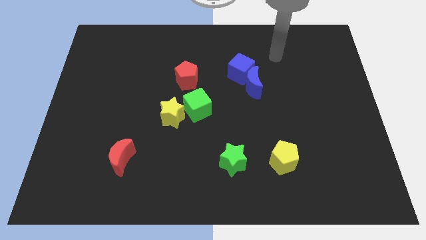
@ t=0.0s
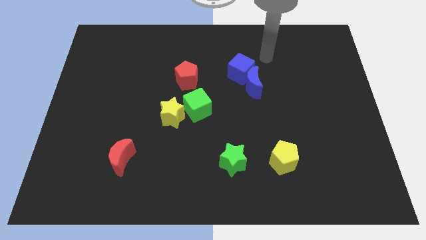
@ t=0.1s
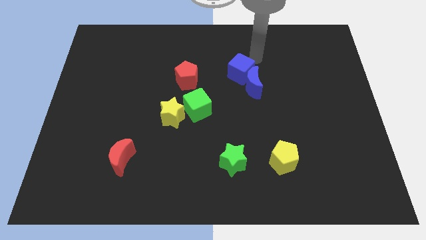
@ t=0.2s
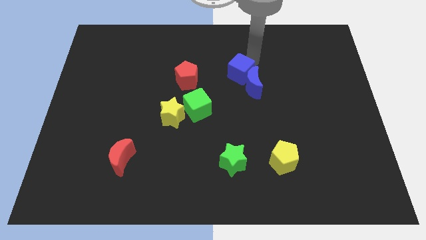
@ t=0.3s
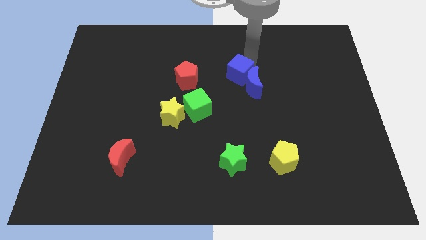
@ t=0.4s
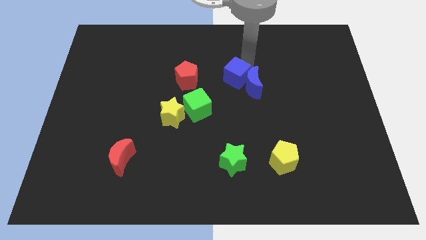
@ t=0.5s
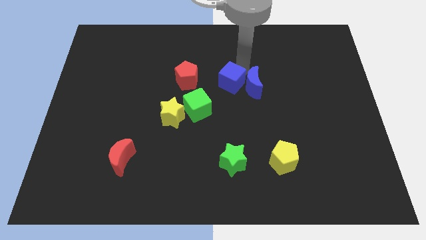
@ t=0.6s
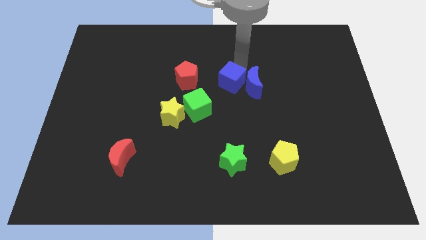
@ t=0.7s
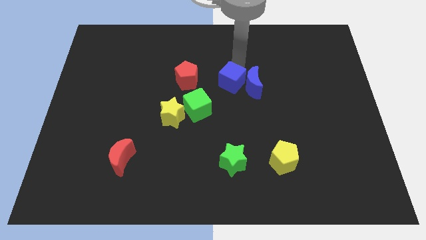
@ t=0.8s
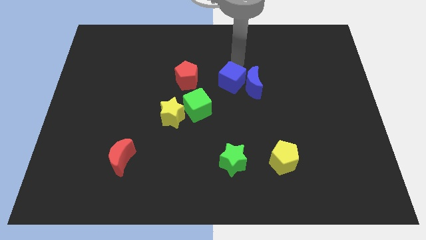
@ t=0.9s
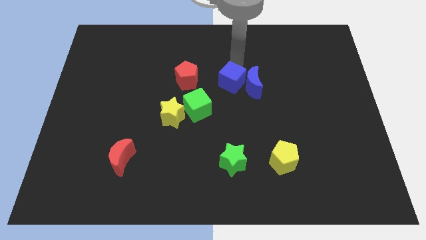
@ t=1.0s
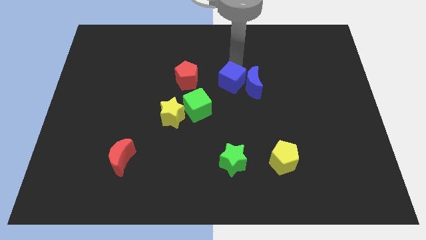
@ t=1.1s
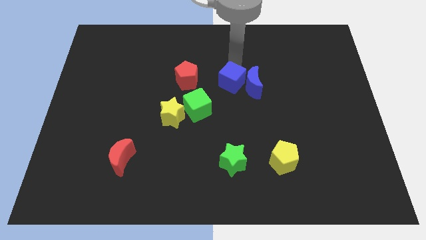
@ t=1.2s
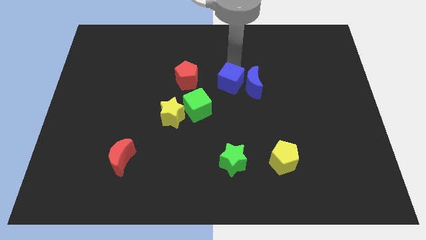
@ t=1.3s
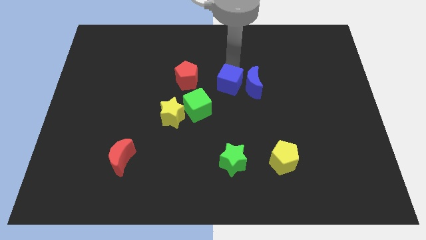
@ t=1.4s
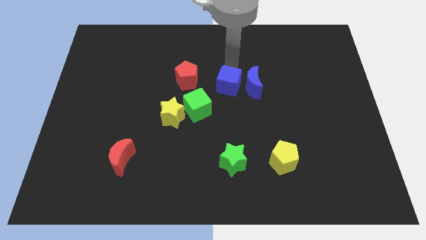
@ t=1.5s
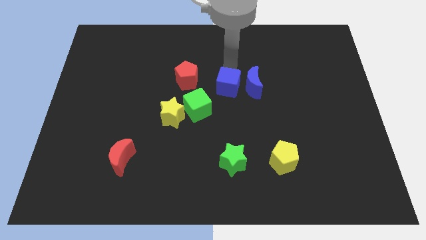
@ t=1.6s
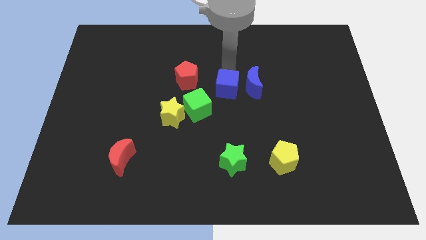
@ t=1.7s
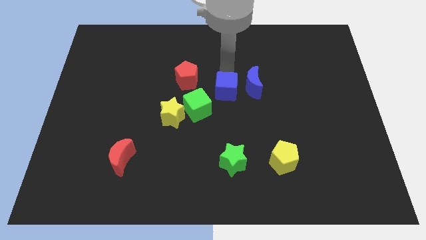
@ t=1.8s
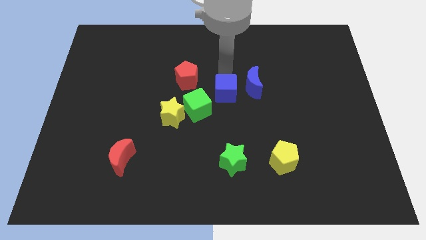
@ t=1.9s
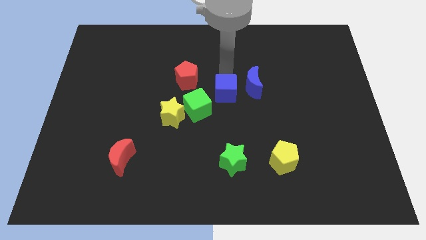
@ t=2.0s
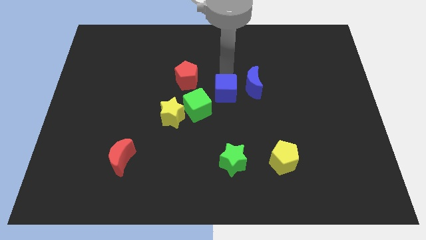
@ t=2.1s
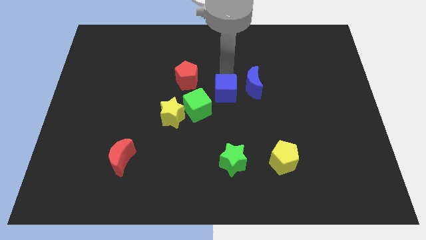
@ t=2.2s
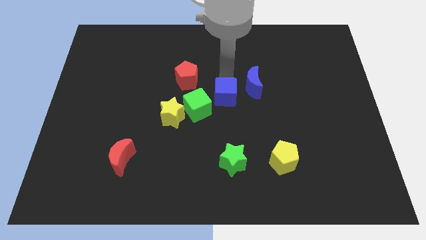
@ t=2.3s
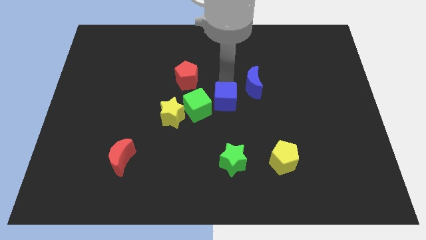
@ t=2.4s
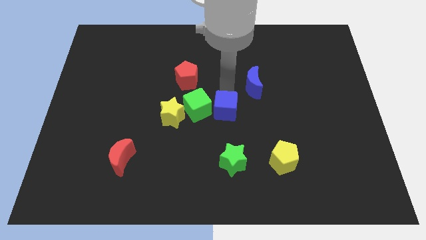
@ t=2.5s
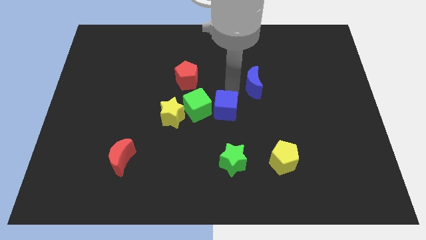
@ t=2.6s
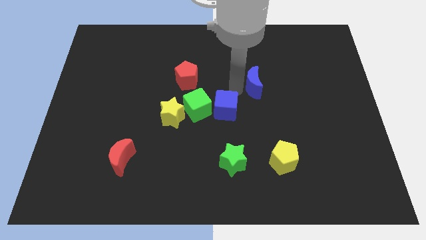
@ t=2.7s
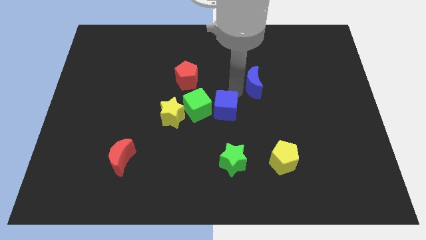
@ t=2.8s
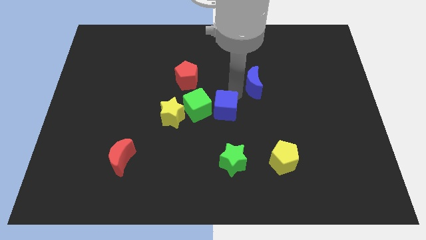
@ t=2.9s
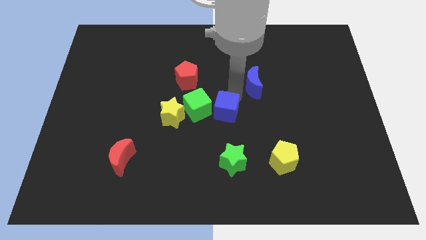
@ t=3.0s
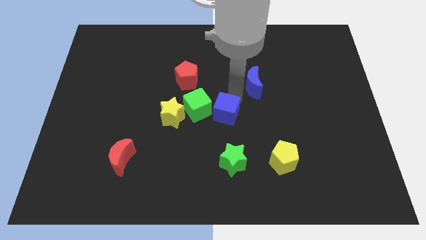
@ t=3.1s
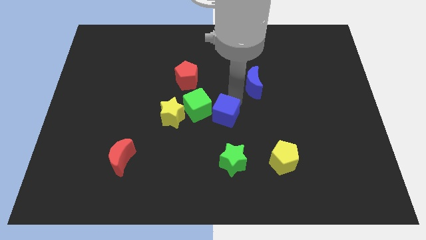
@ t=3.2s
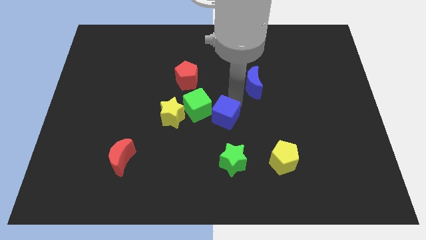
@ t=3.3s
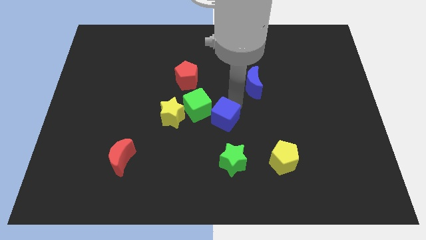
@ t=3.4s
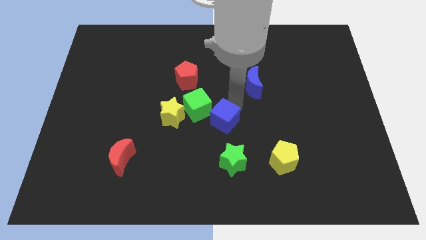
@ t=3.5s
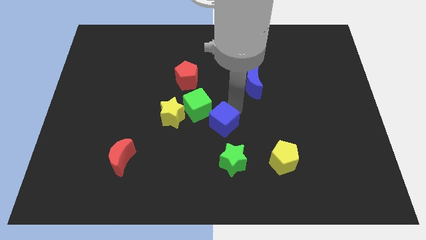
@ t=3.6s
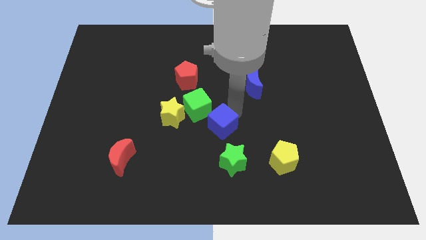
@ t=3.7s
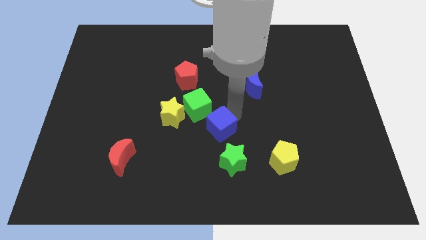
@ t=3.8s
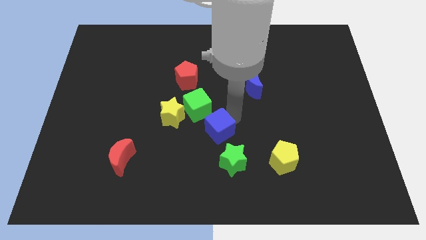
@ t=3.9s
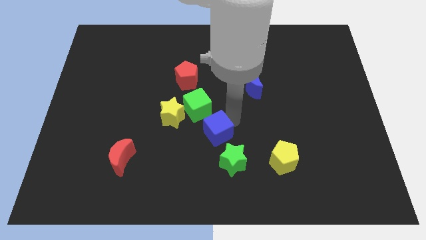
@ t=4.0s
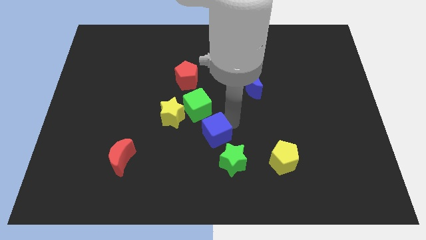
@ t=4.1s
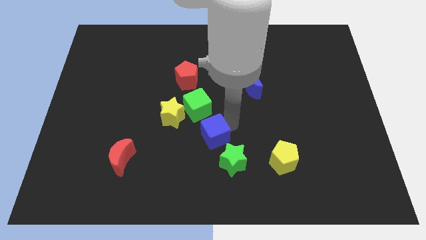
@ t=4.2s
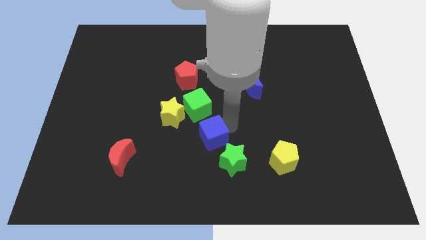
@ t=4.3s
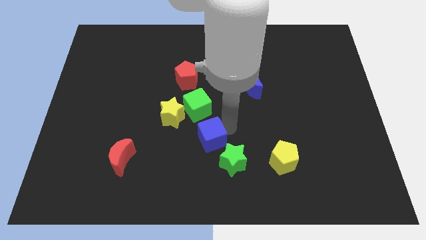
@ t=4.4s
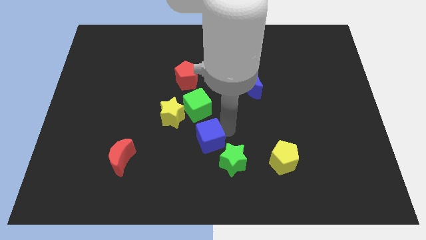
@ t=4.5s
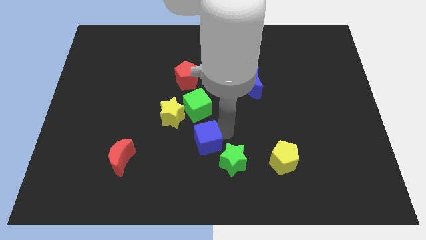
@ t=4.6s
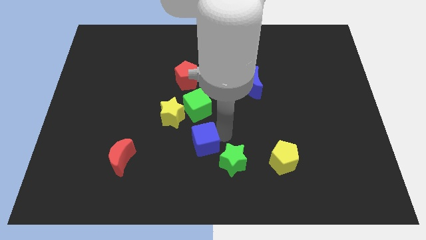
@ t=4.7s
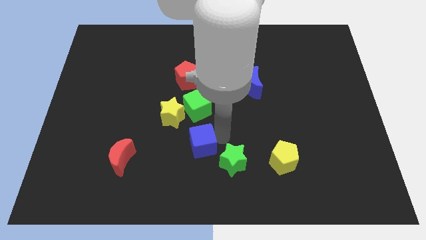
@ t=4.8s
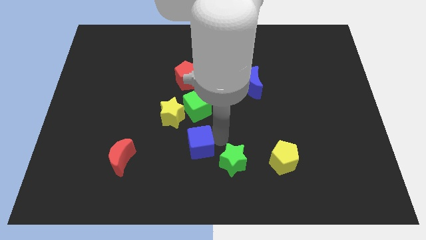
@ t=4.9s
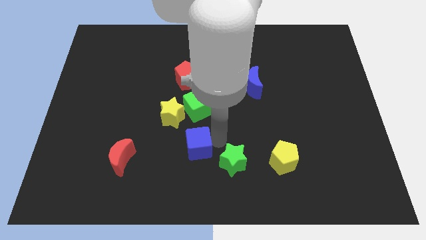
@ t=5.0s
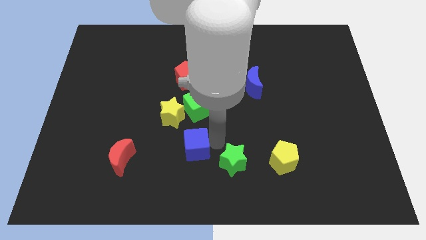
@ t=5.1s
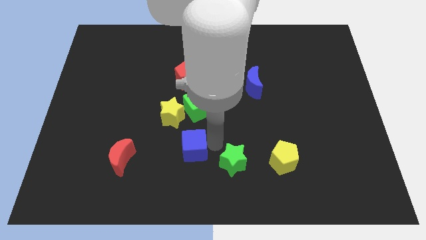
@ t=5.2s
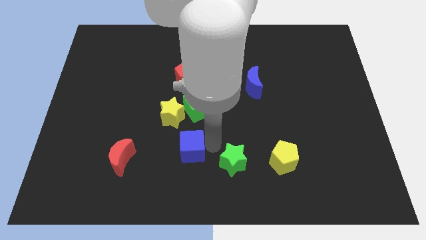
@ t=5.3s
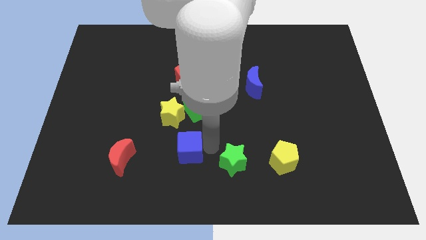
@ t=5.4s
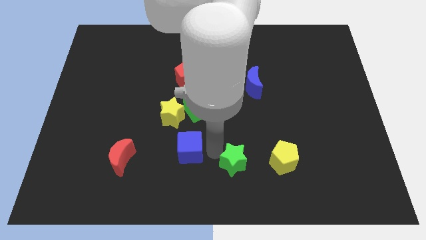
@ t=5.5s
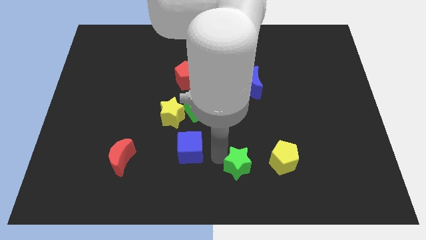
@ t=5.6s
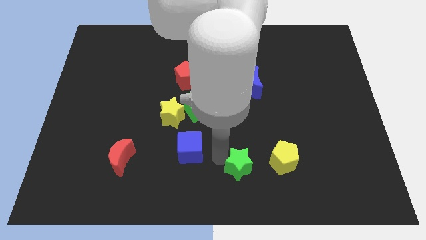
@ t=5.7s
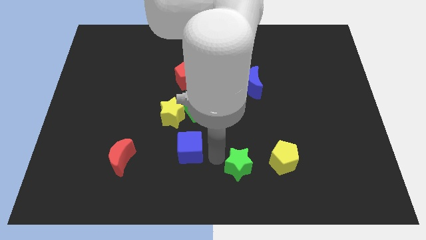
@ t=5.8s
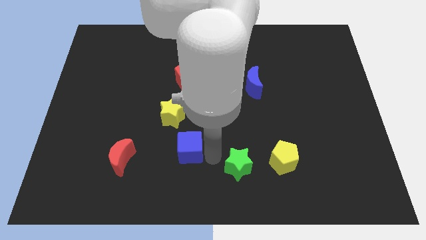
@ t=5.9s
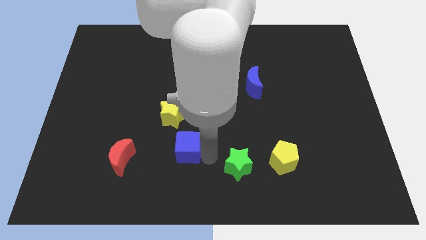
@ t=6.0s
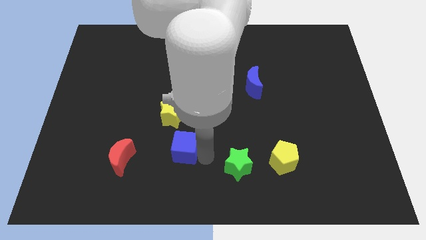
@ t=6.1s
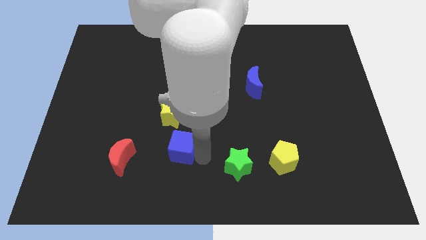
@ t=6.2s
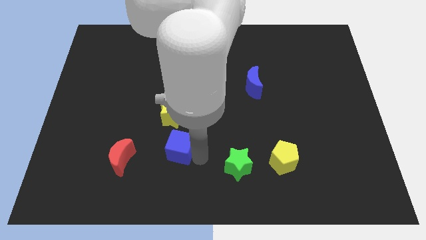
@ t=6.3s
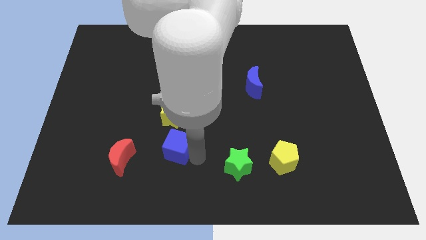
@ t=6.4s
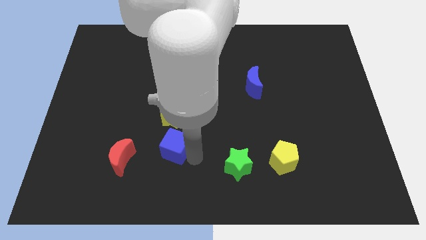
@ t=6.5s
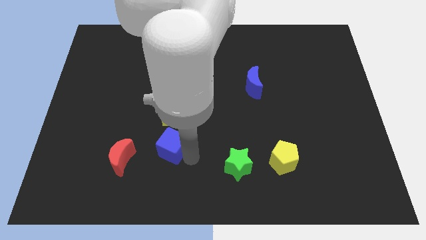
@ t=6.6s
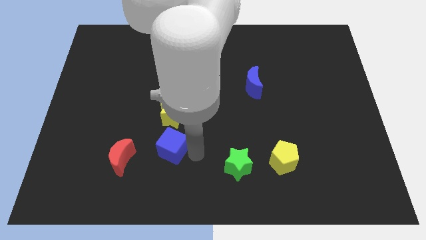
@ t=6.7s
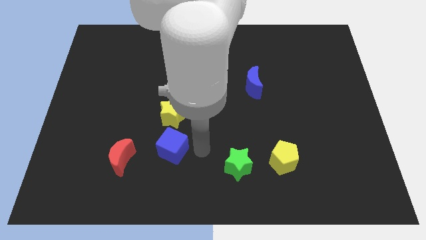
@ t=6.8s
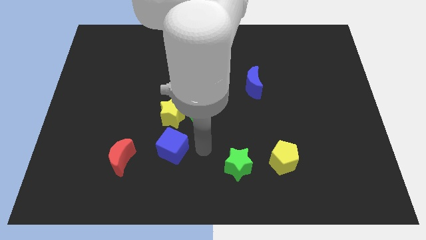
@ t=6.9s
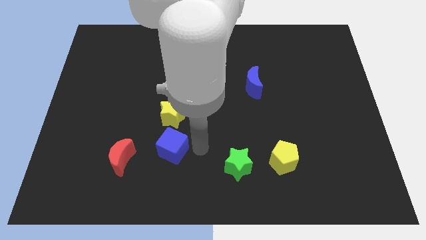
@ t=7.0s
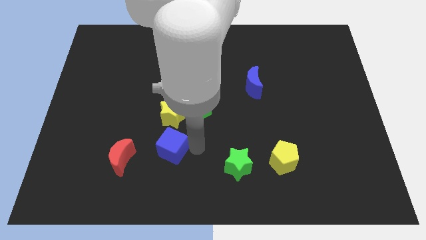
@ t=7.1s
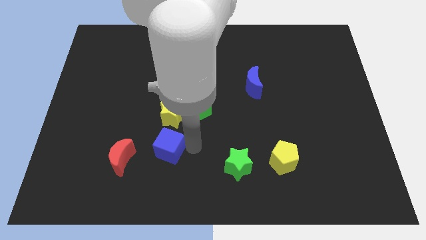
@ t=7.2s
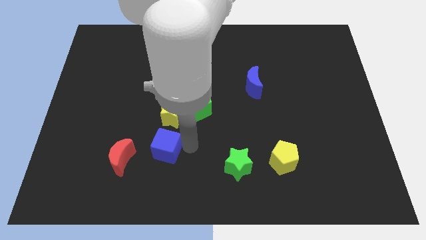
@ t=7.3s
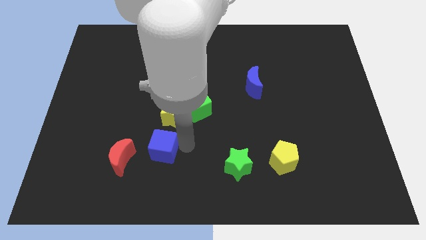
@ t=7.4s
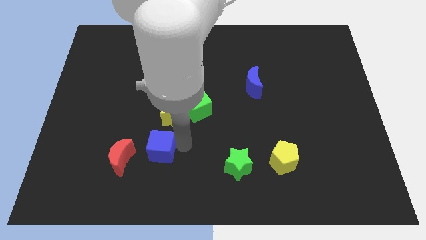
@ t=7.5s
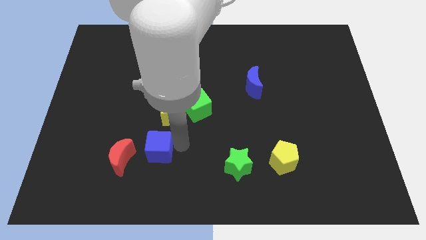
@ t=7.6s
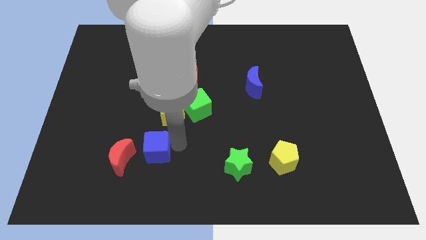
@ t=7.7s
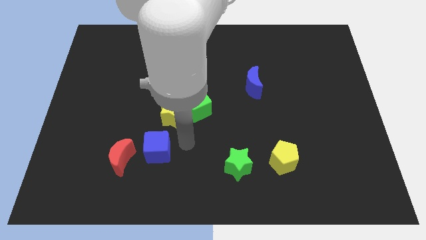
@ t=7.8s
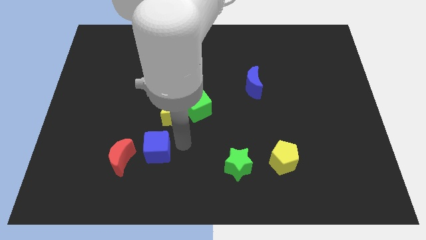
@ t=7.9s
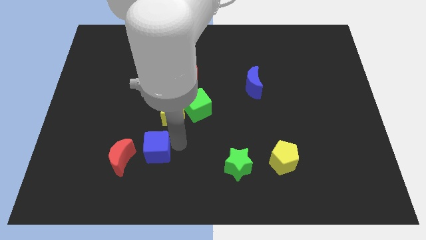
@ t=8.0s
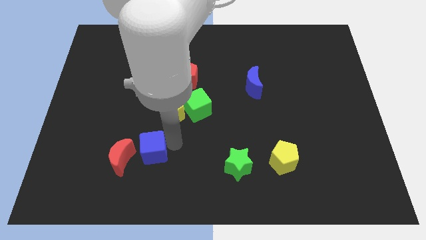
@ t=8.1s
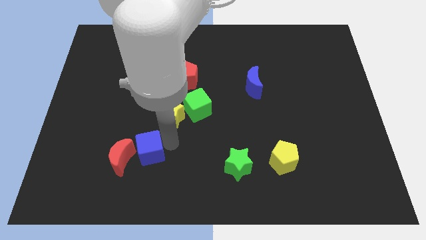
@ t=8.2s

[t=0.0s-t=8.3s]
slide the blue cube towards the red moon
